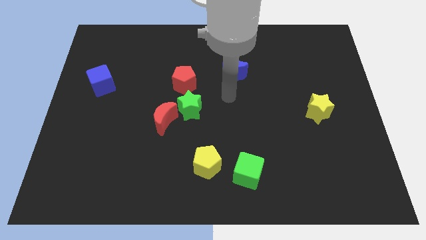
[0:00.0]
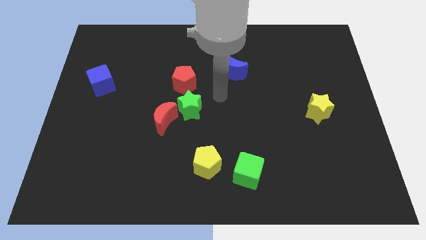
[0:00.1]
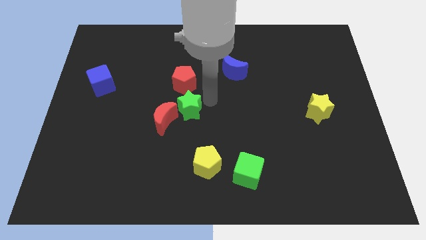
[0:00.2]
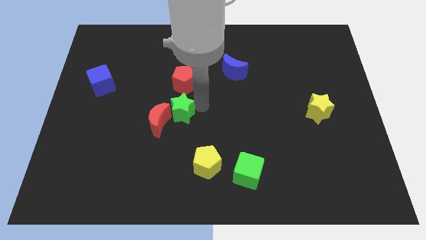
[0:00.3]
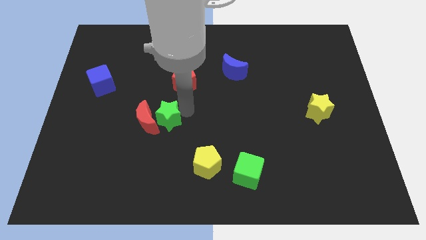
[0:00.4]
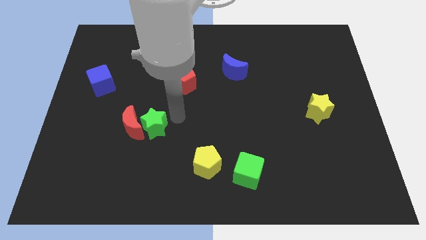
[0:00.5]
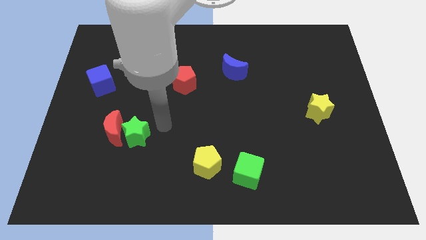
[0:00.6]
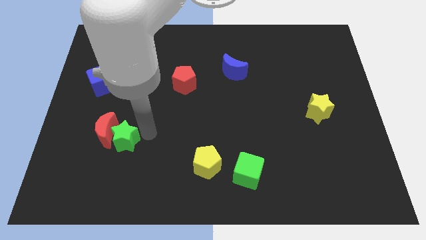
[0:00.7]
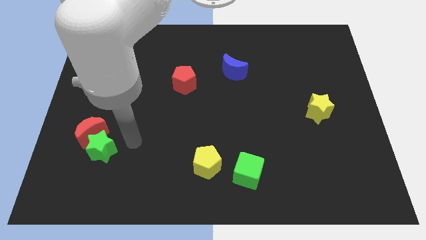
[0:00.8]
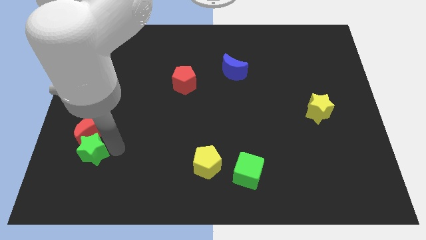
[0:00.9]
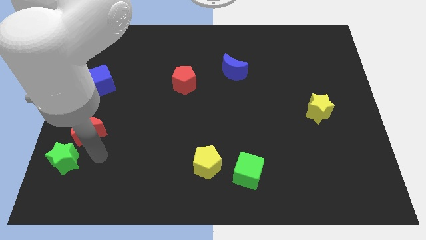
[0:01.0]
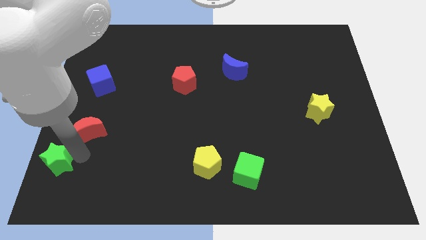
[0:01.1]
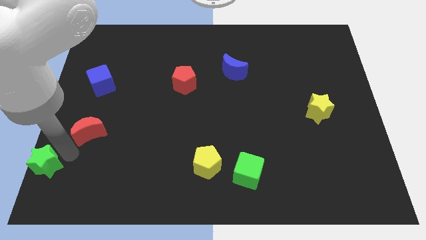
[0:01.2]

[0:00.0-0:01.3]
separate the red moon from the green star

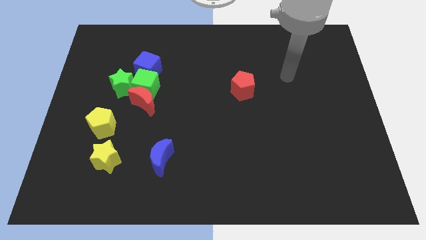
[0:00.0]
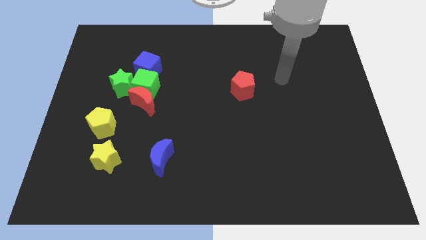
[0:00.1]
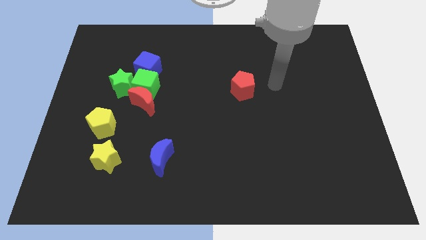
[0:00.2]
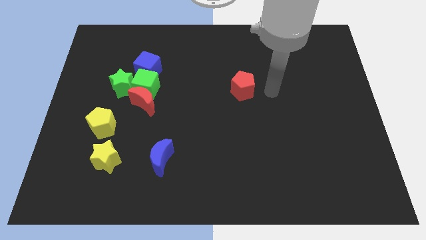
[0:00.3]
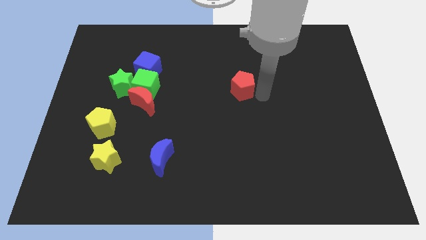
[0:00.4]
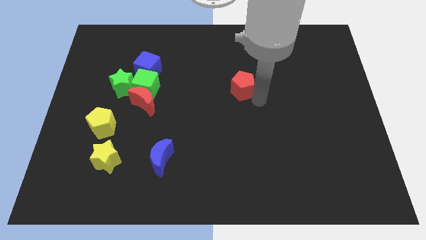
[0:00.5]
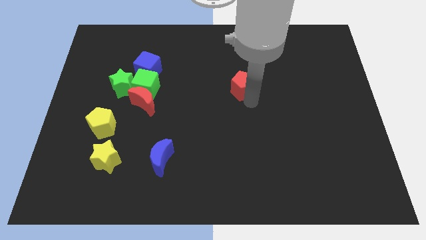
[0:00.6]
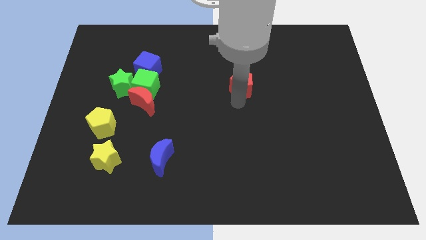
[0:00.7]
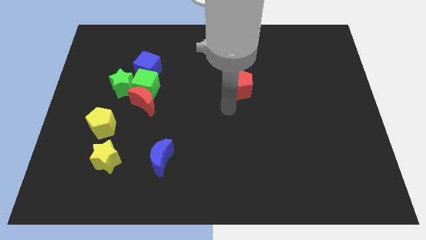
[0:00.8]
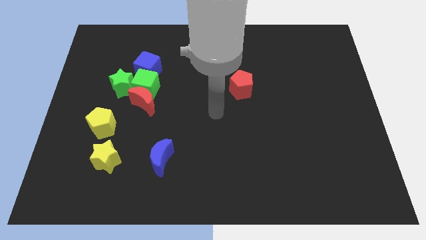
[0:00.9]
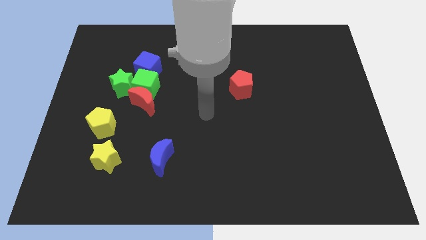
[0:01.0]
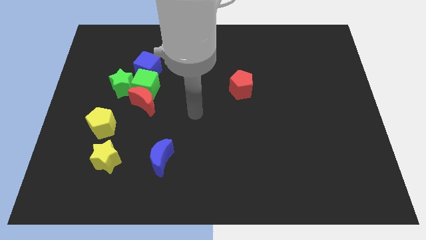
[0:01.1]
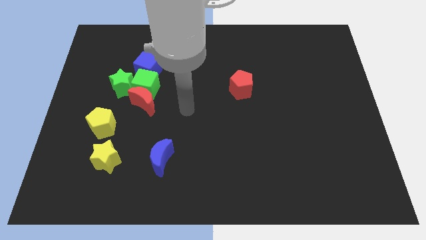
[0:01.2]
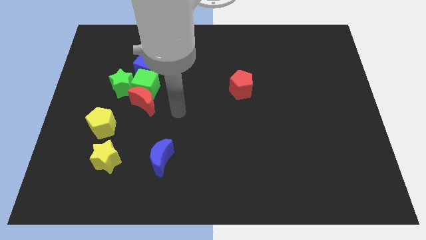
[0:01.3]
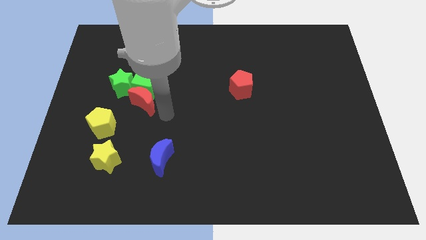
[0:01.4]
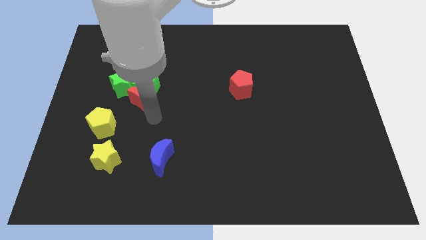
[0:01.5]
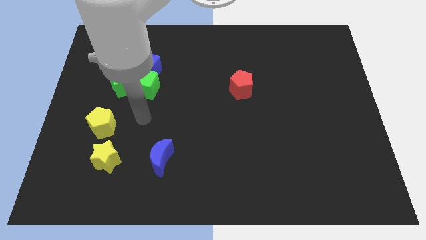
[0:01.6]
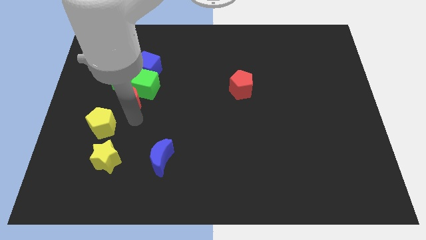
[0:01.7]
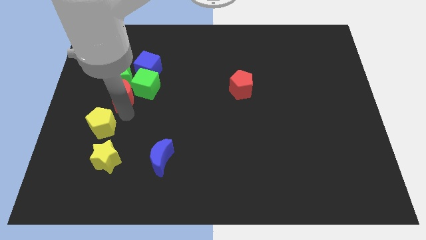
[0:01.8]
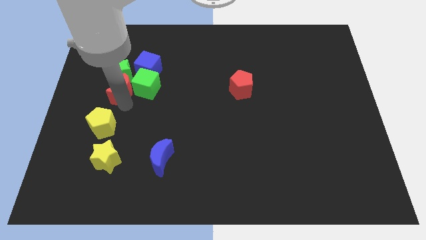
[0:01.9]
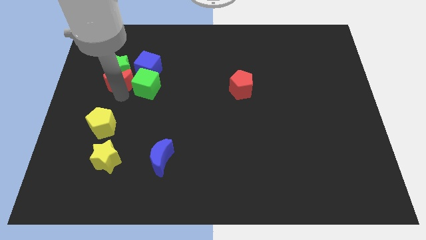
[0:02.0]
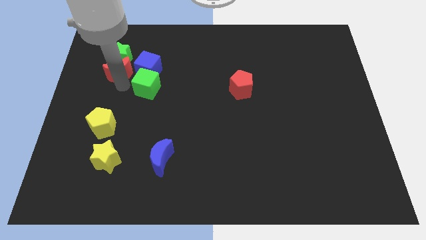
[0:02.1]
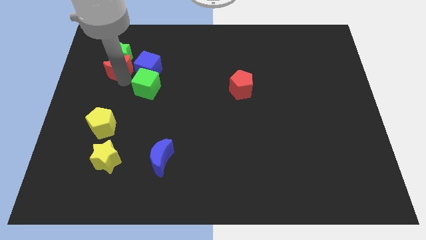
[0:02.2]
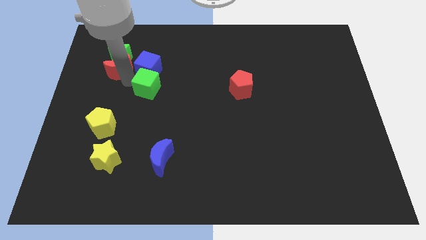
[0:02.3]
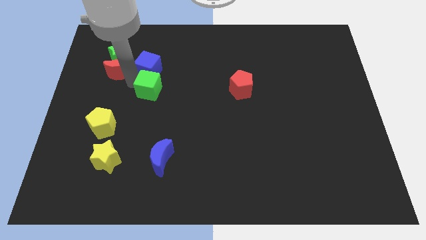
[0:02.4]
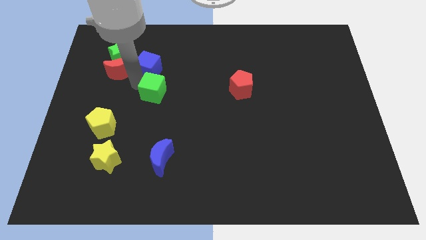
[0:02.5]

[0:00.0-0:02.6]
pull the green cube apart from the clump

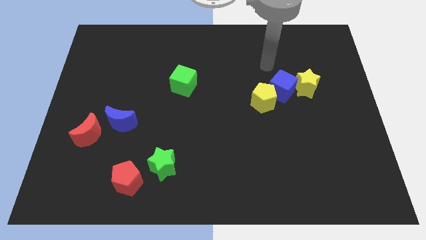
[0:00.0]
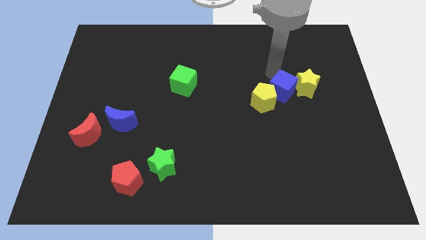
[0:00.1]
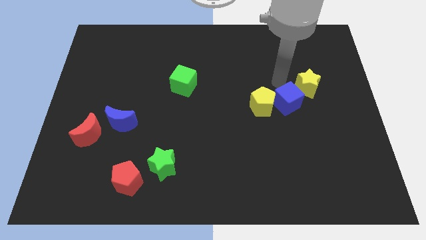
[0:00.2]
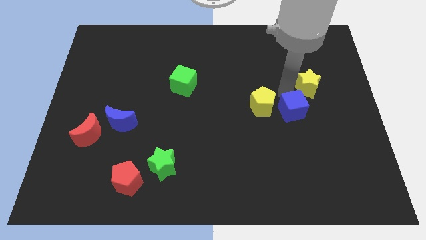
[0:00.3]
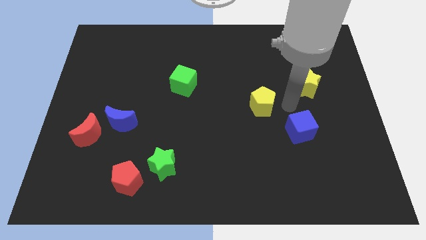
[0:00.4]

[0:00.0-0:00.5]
move the yellow pentagon away from the blue cube

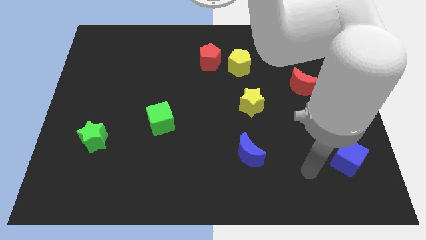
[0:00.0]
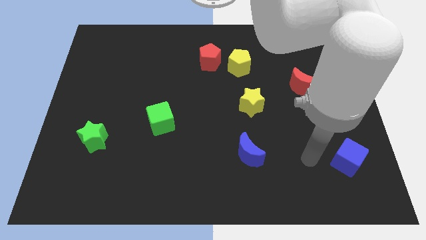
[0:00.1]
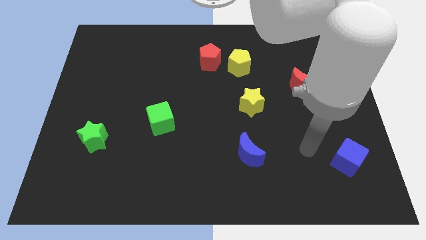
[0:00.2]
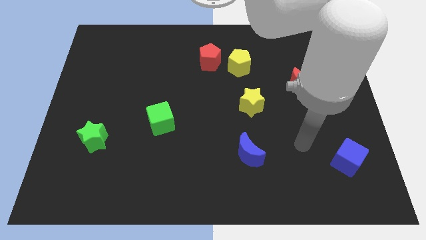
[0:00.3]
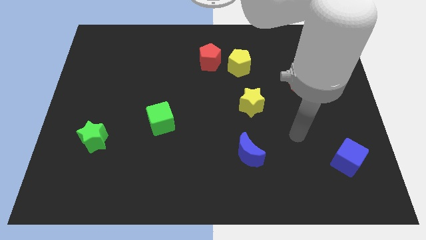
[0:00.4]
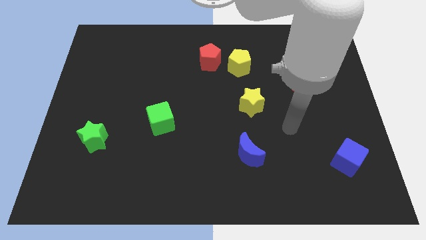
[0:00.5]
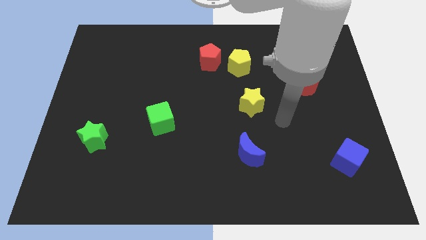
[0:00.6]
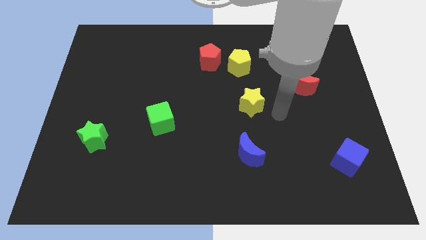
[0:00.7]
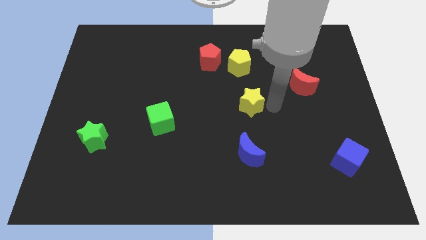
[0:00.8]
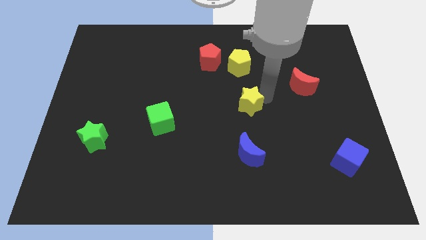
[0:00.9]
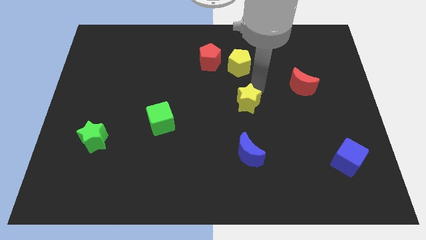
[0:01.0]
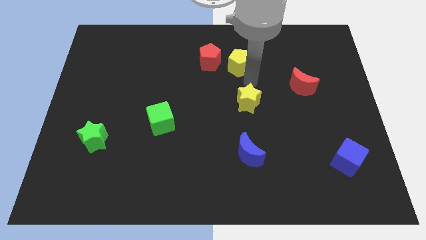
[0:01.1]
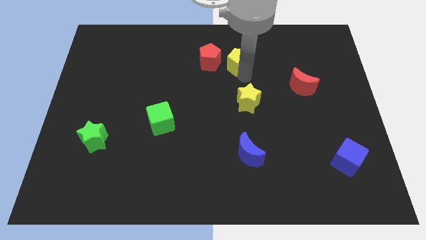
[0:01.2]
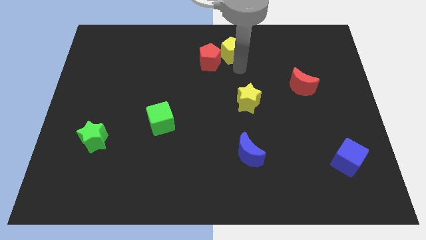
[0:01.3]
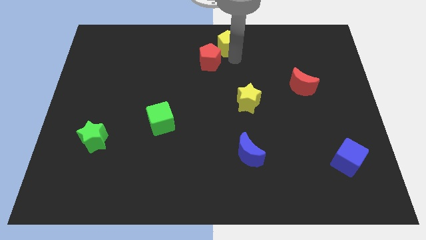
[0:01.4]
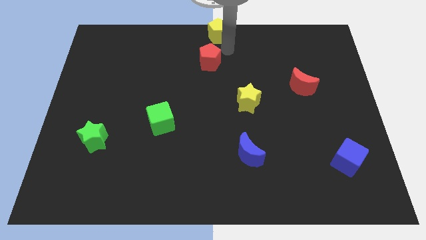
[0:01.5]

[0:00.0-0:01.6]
separate the red pentagon from the yellow pentagon

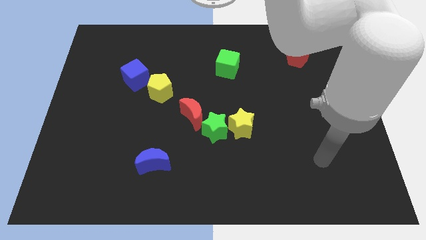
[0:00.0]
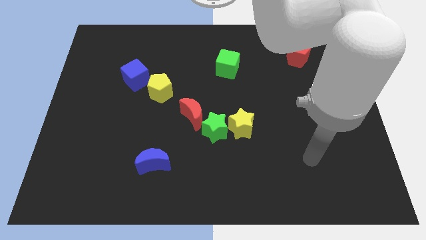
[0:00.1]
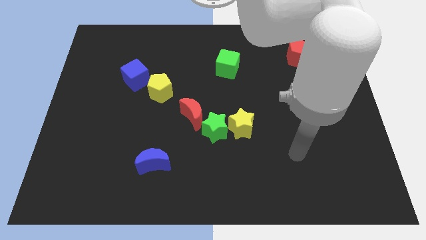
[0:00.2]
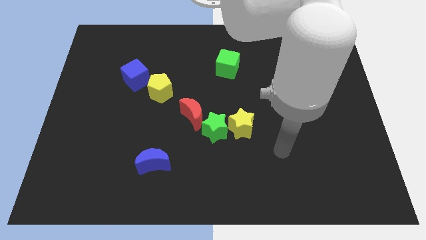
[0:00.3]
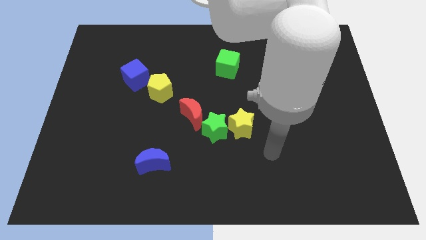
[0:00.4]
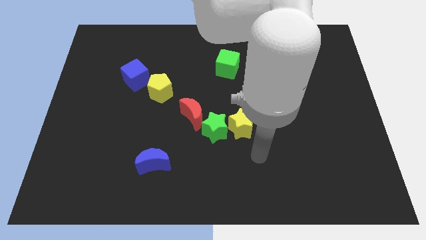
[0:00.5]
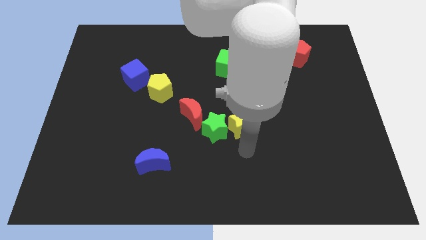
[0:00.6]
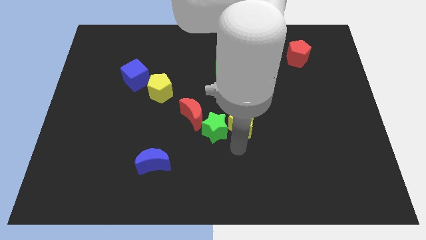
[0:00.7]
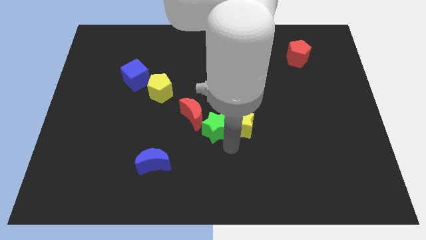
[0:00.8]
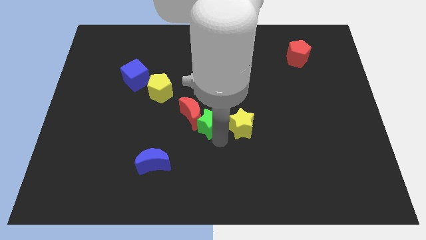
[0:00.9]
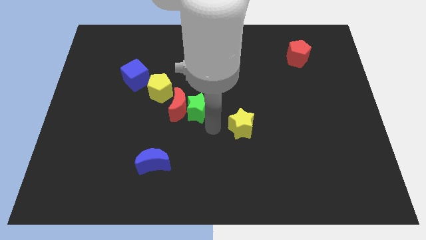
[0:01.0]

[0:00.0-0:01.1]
pull the yellow star apart from the green star

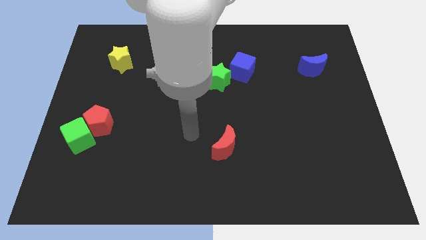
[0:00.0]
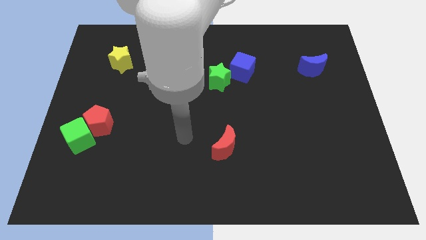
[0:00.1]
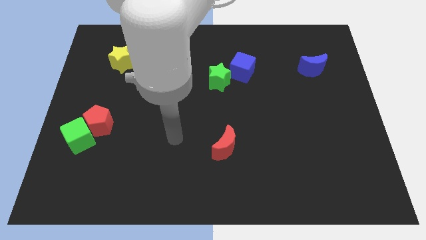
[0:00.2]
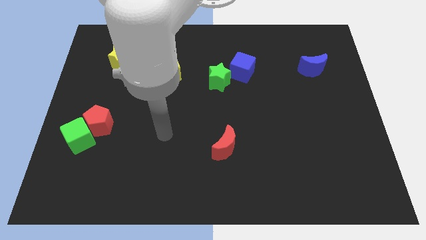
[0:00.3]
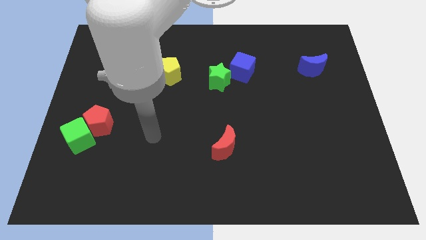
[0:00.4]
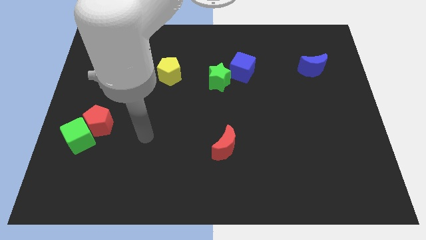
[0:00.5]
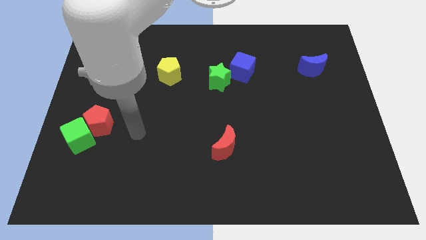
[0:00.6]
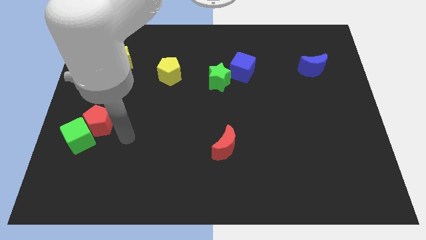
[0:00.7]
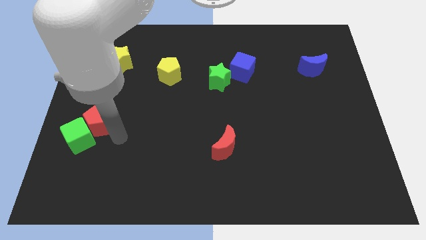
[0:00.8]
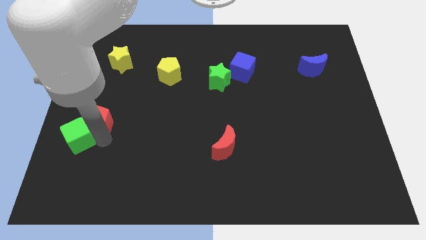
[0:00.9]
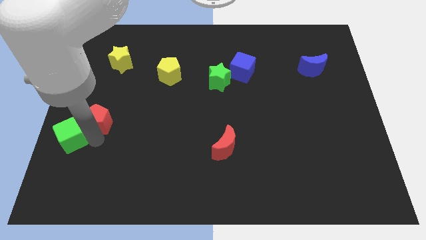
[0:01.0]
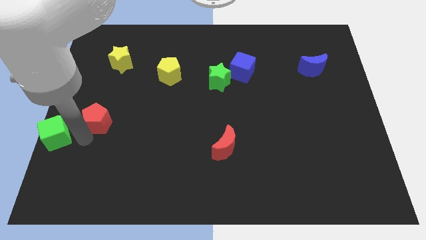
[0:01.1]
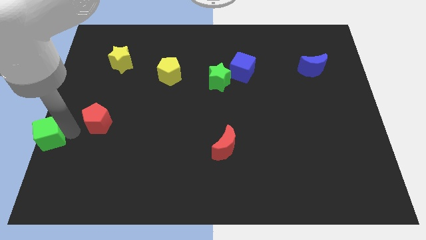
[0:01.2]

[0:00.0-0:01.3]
separate the red pentagon from the green cube

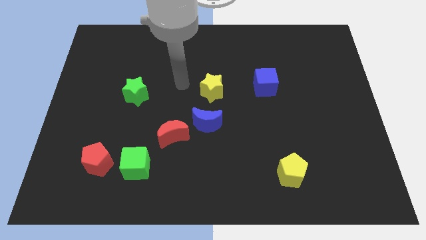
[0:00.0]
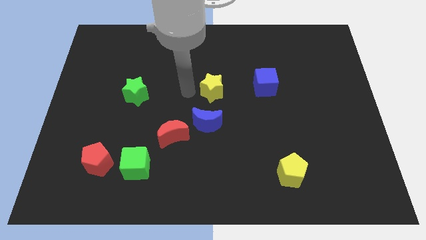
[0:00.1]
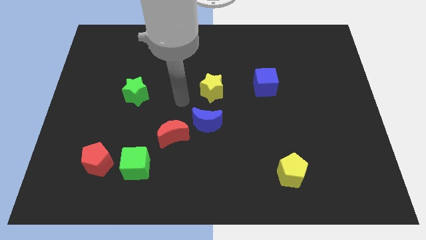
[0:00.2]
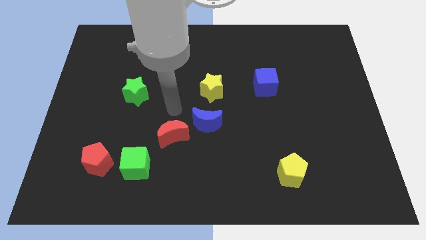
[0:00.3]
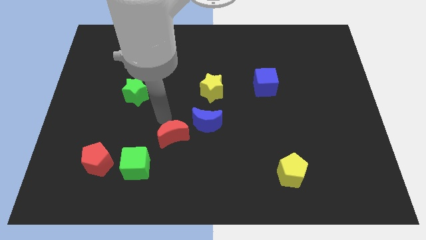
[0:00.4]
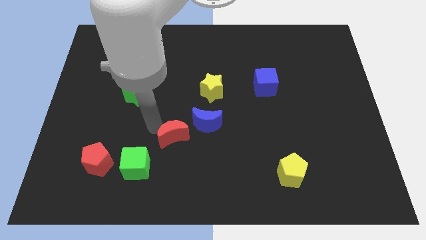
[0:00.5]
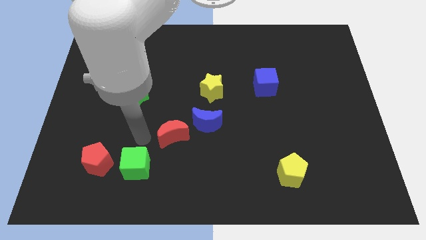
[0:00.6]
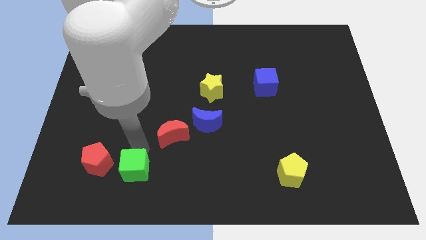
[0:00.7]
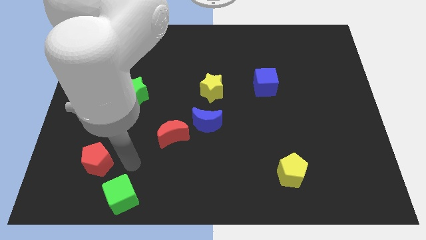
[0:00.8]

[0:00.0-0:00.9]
move the red pentagon away from the green cube
